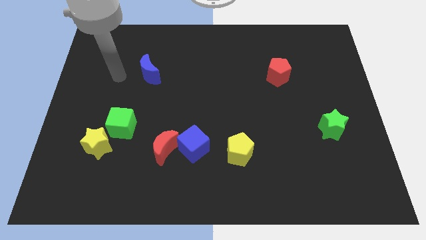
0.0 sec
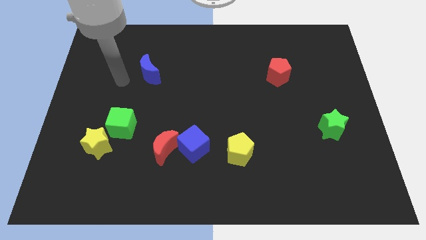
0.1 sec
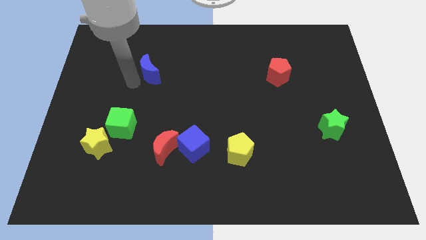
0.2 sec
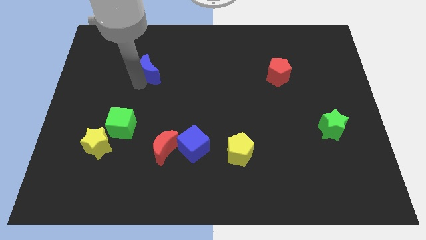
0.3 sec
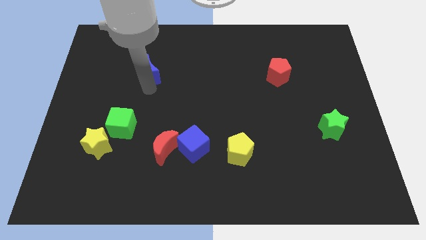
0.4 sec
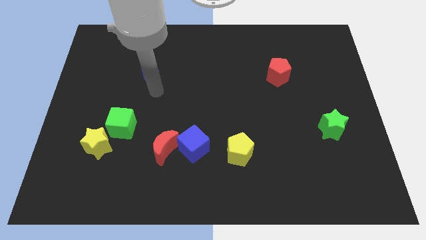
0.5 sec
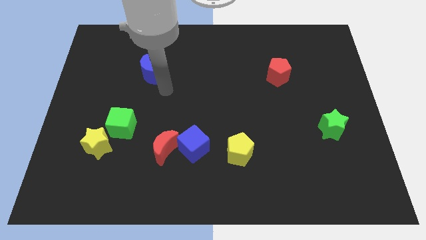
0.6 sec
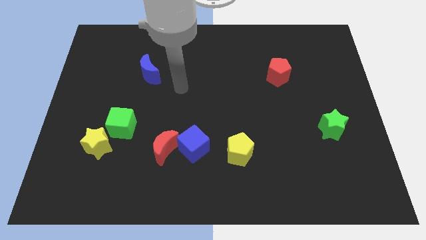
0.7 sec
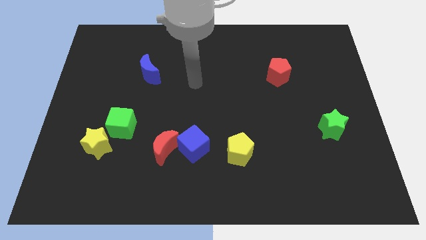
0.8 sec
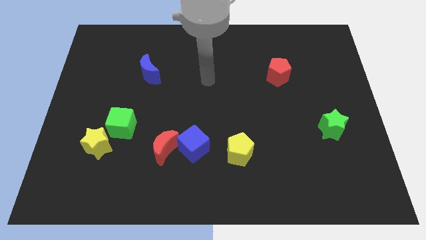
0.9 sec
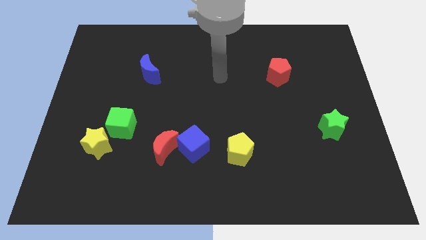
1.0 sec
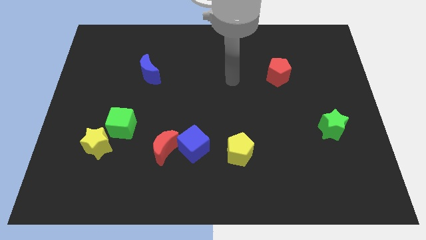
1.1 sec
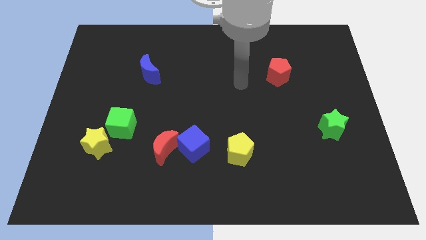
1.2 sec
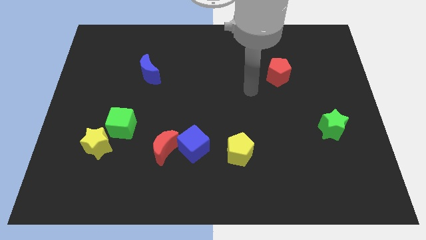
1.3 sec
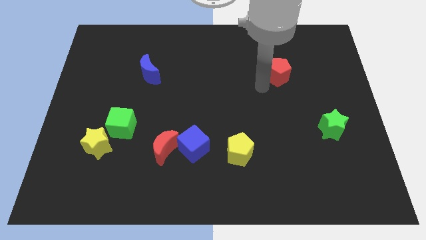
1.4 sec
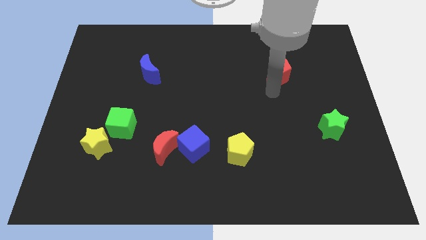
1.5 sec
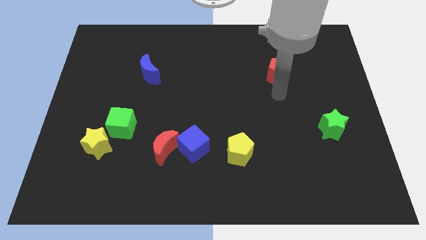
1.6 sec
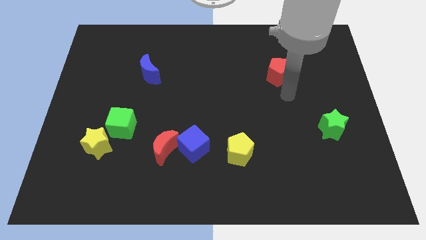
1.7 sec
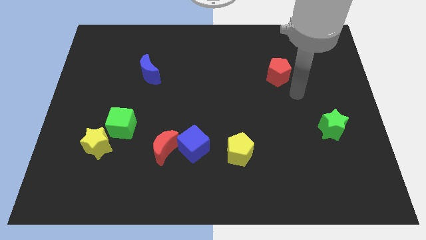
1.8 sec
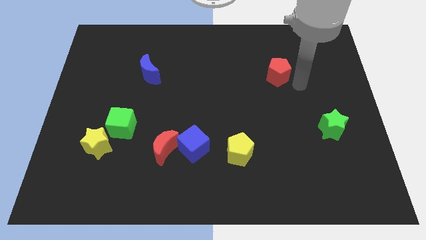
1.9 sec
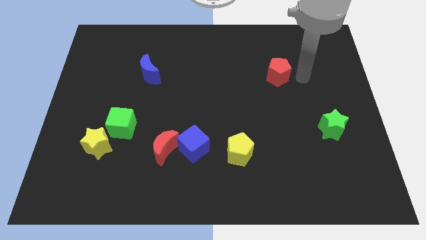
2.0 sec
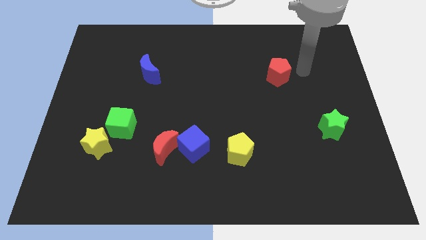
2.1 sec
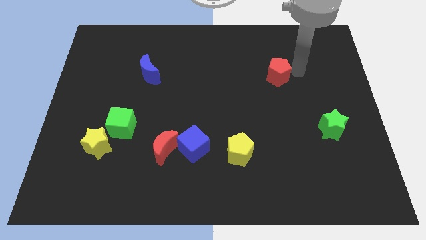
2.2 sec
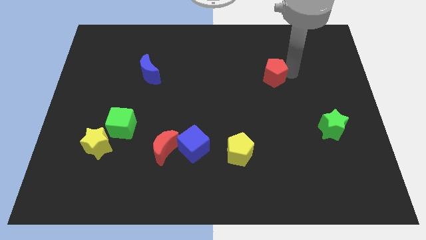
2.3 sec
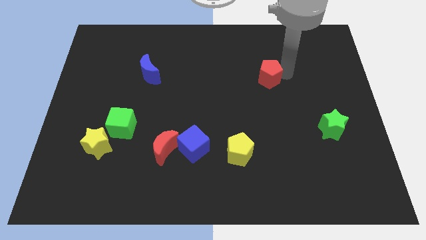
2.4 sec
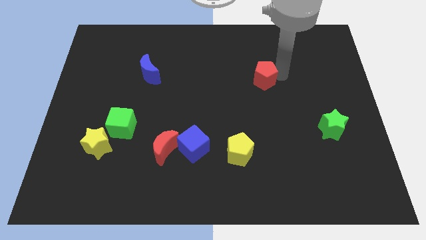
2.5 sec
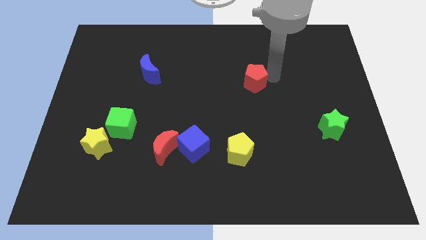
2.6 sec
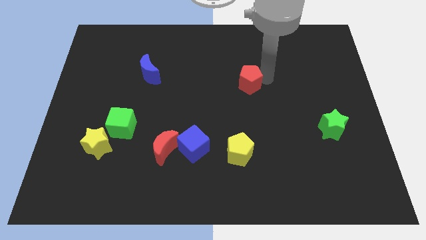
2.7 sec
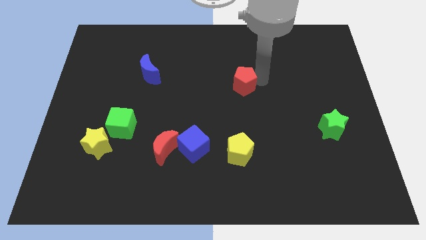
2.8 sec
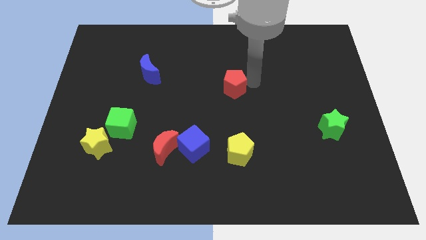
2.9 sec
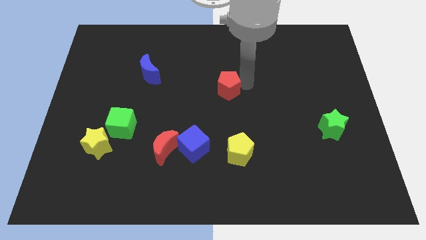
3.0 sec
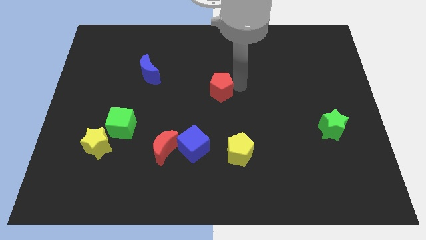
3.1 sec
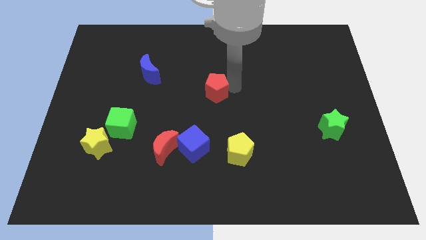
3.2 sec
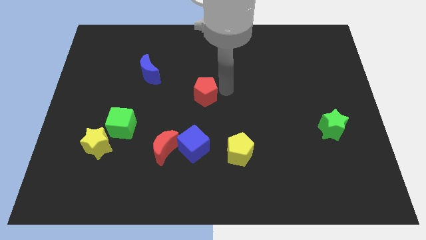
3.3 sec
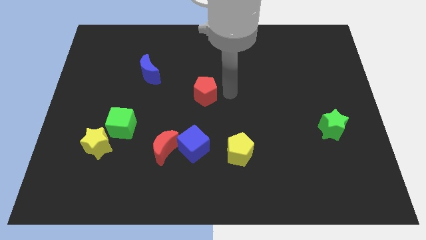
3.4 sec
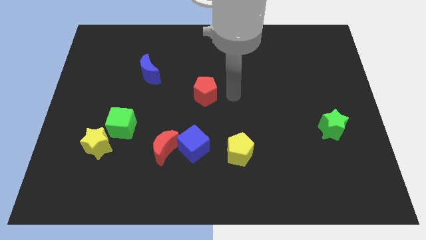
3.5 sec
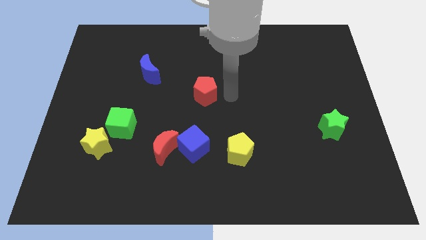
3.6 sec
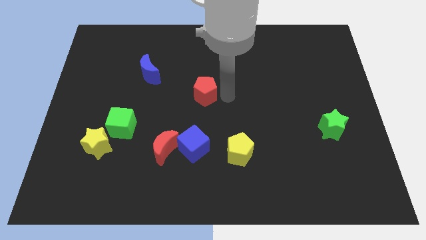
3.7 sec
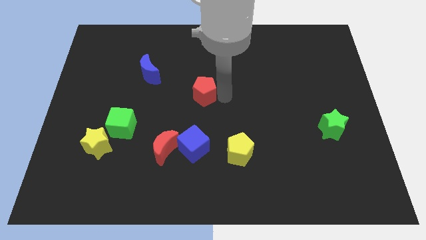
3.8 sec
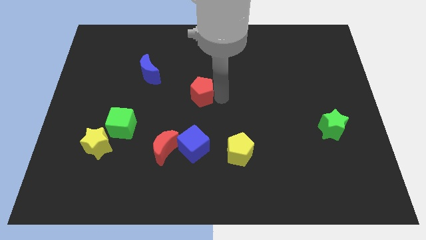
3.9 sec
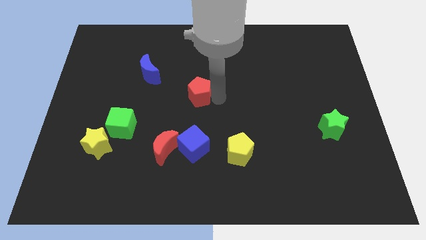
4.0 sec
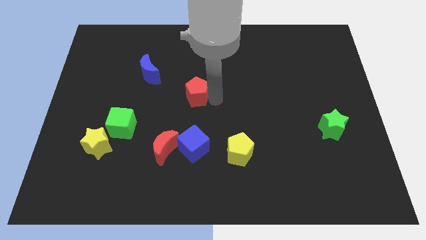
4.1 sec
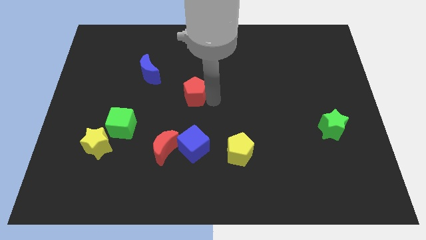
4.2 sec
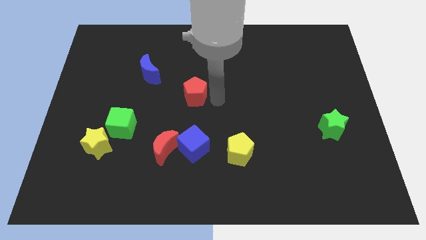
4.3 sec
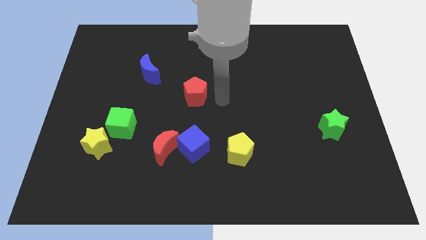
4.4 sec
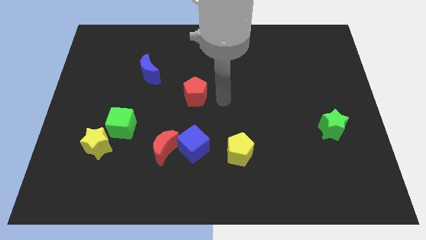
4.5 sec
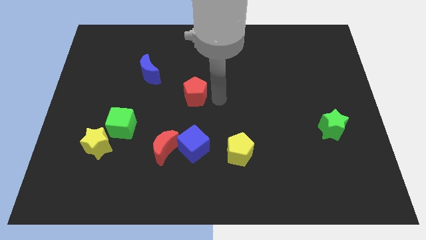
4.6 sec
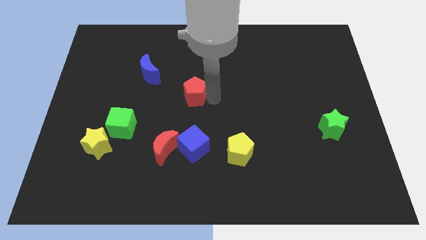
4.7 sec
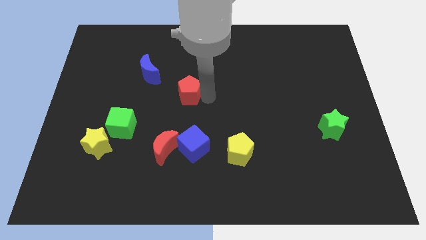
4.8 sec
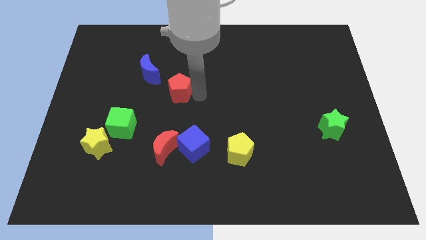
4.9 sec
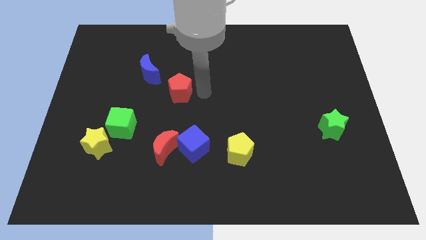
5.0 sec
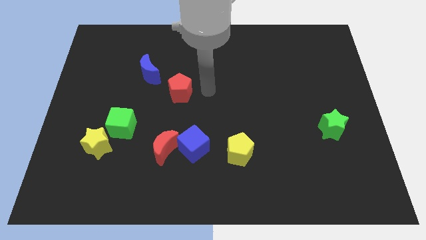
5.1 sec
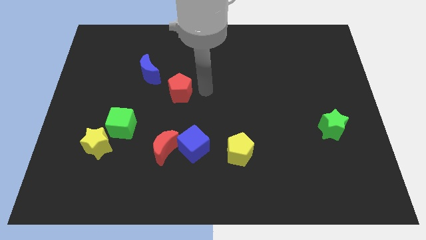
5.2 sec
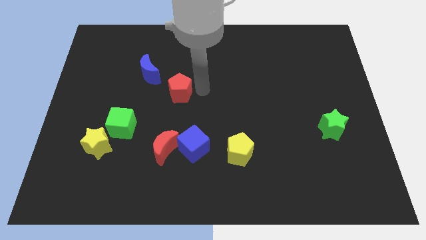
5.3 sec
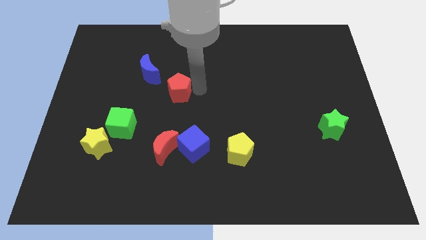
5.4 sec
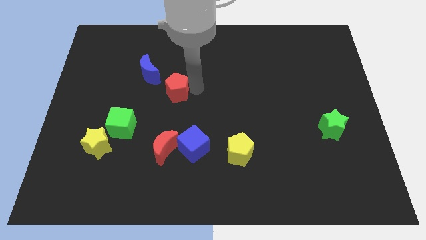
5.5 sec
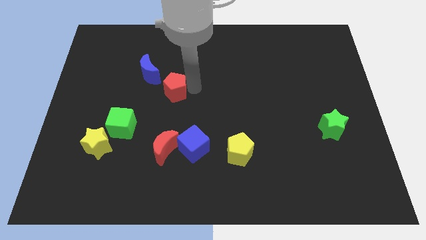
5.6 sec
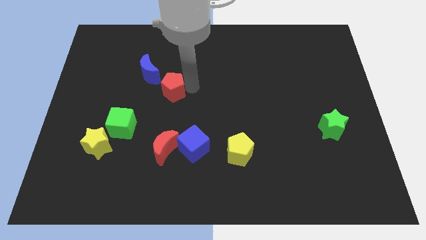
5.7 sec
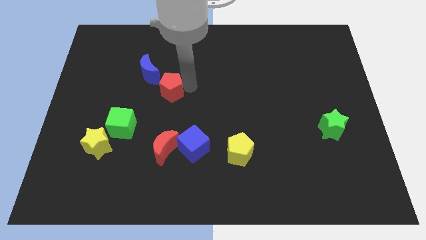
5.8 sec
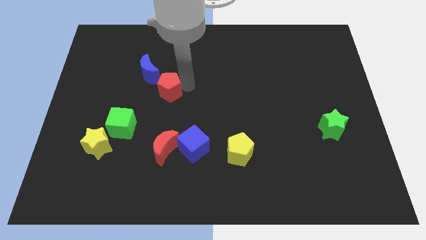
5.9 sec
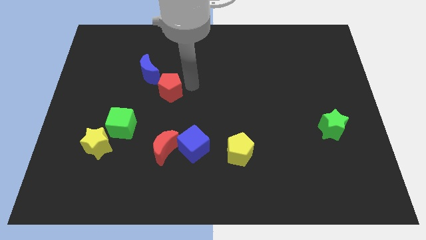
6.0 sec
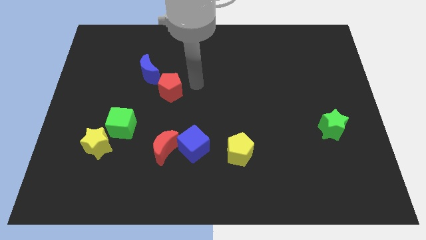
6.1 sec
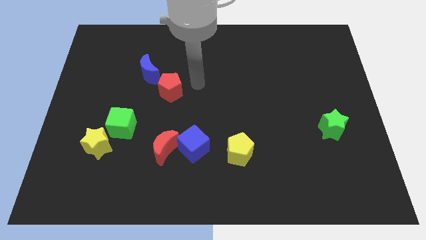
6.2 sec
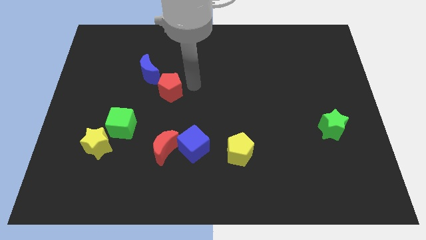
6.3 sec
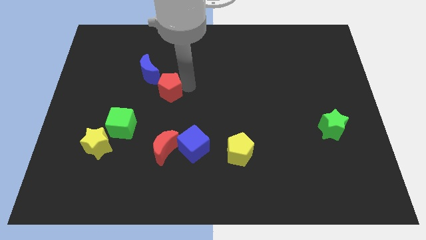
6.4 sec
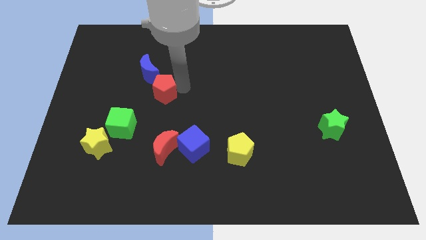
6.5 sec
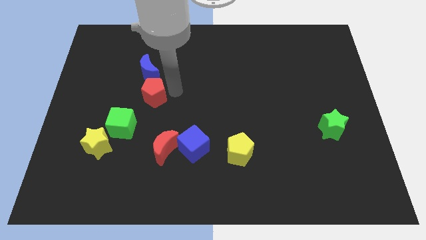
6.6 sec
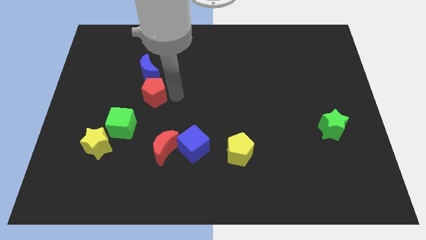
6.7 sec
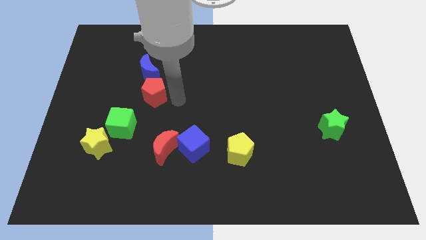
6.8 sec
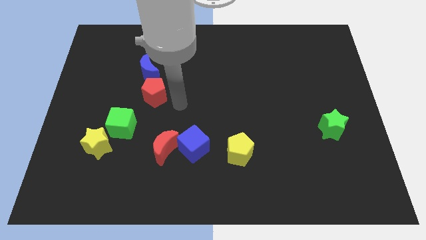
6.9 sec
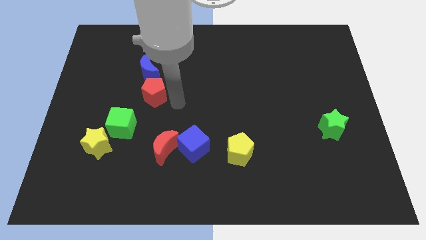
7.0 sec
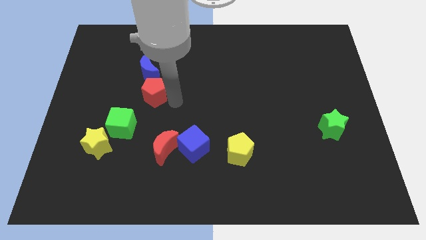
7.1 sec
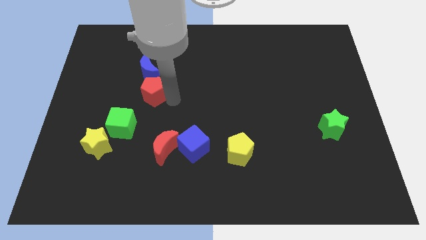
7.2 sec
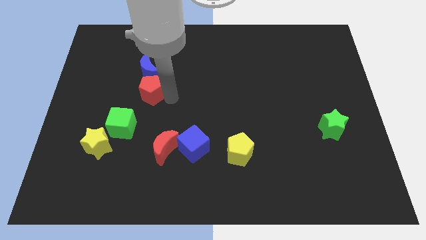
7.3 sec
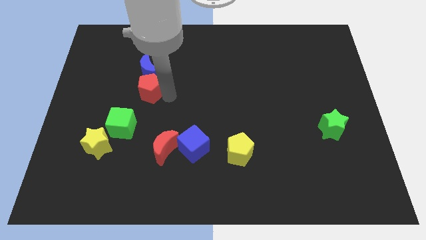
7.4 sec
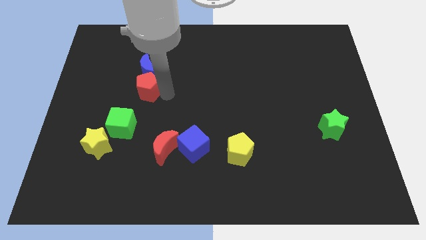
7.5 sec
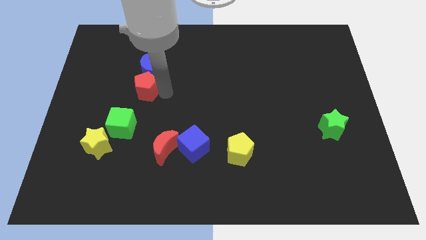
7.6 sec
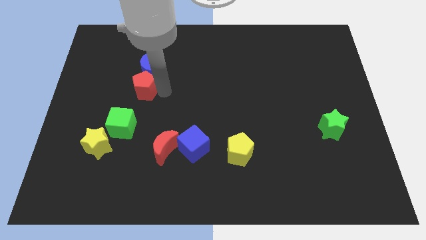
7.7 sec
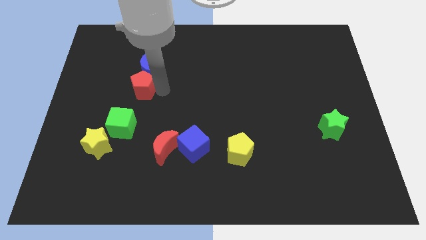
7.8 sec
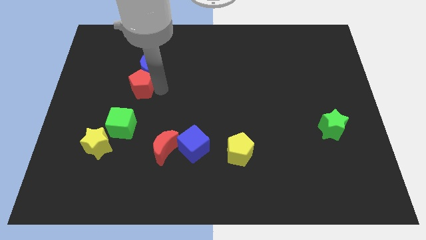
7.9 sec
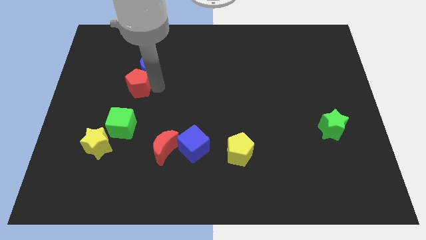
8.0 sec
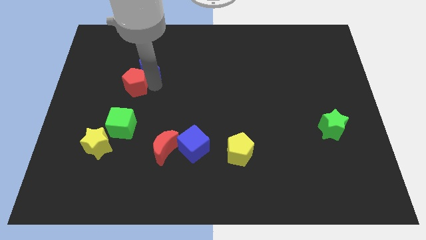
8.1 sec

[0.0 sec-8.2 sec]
slide the red pentagon to the left of the blue moon
